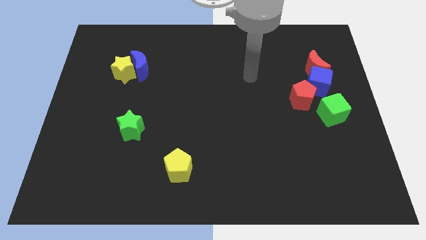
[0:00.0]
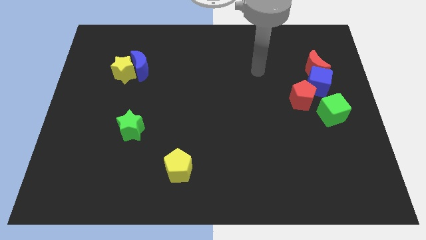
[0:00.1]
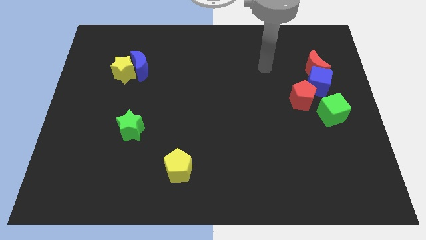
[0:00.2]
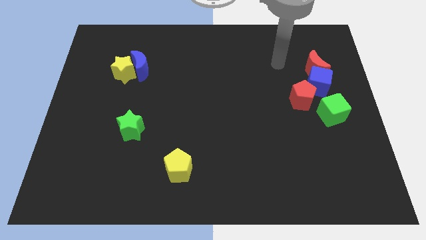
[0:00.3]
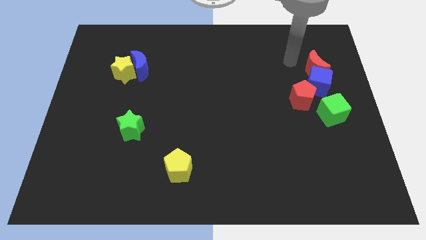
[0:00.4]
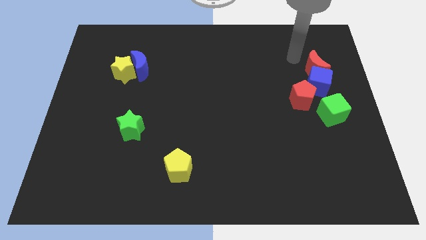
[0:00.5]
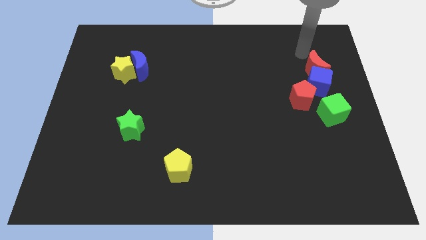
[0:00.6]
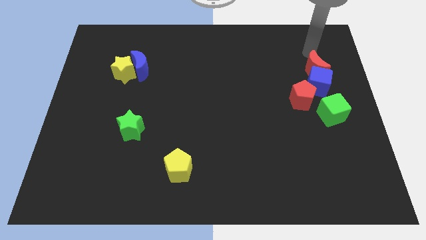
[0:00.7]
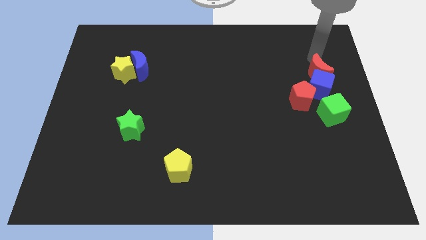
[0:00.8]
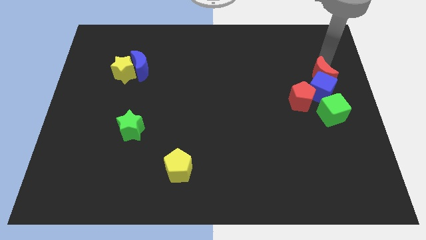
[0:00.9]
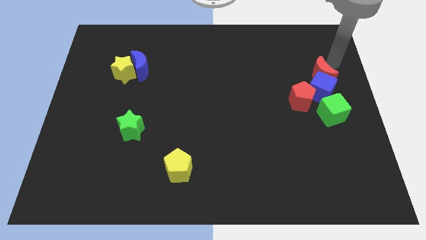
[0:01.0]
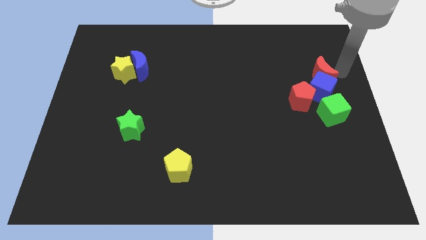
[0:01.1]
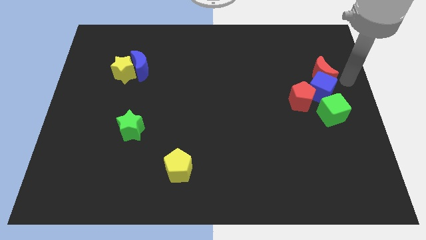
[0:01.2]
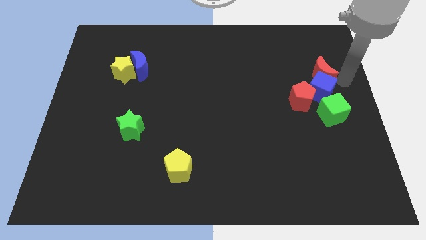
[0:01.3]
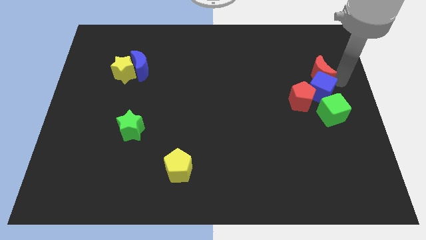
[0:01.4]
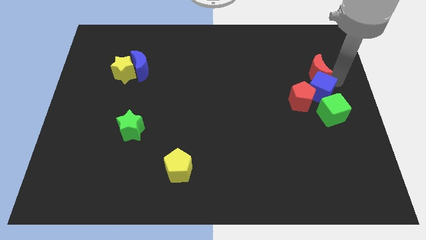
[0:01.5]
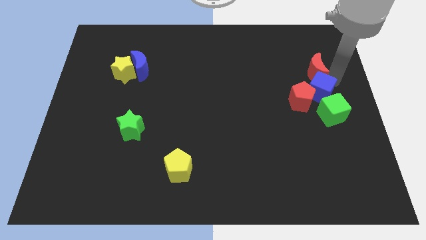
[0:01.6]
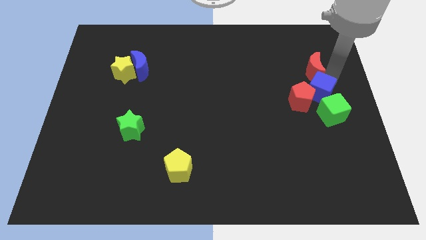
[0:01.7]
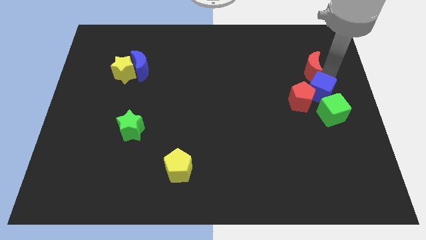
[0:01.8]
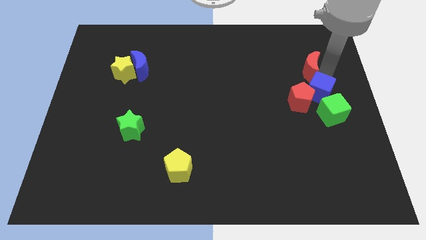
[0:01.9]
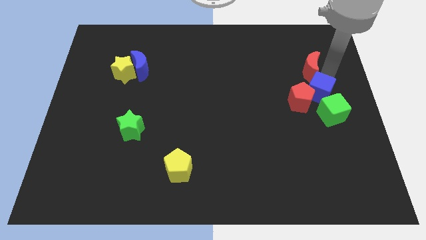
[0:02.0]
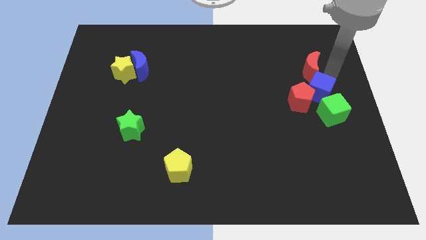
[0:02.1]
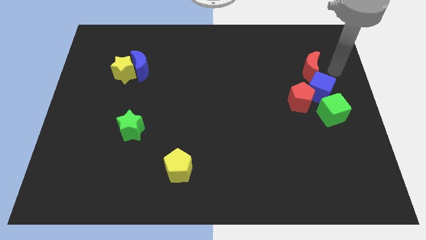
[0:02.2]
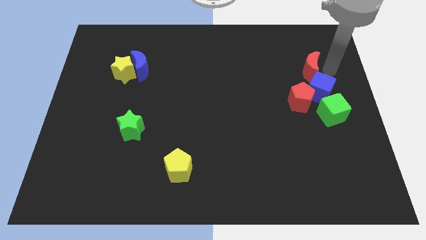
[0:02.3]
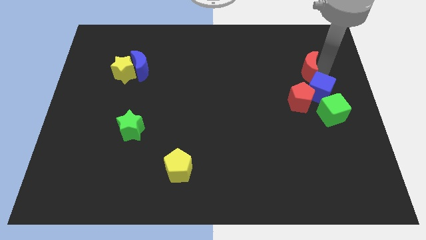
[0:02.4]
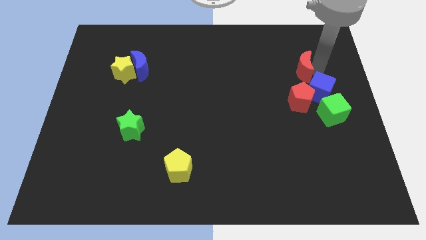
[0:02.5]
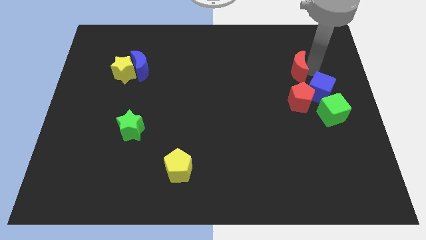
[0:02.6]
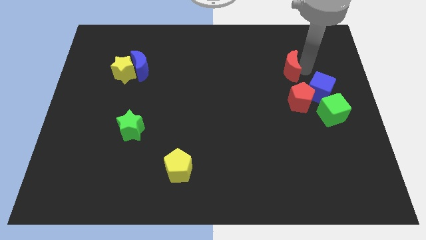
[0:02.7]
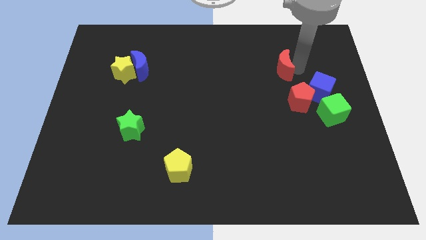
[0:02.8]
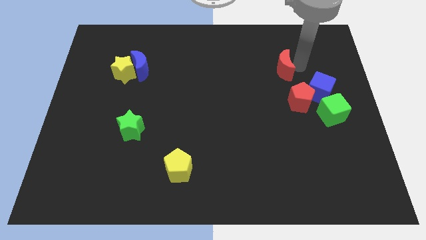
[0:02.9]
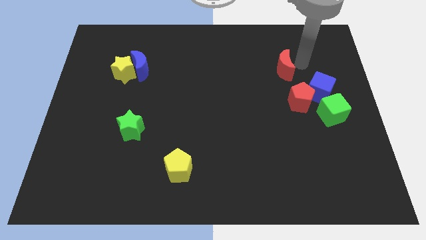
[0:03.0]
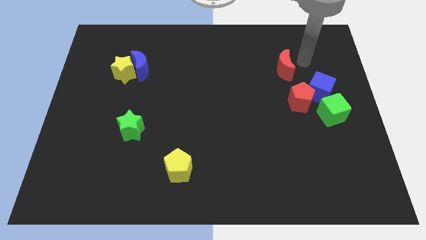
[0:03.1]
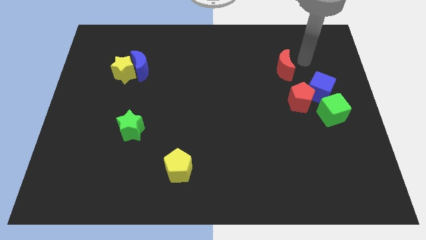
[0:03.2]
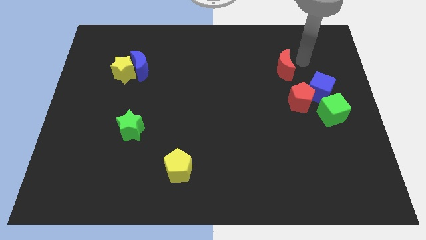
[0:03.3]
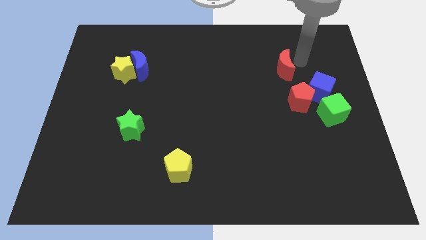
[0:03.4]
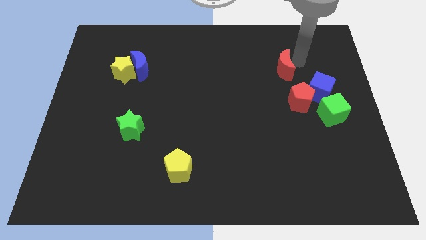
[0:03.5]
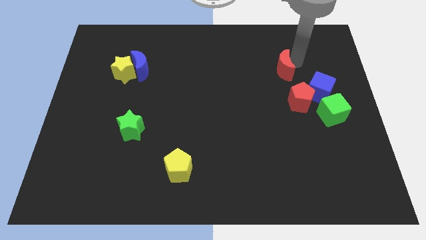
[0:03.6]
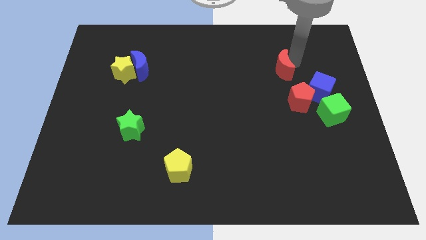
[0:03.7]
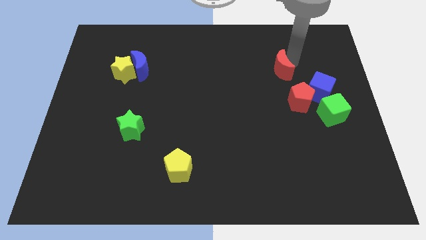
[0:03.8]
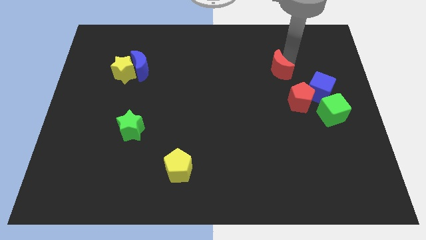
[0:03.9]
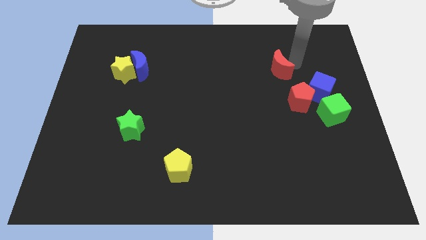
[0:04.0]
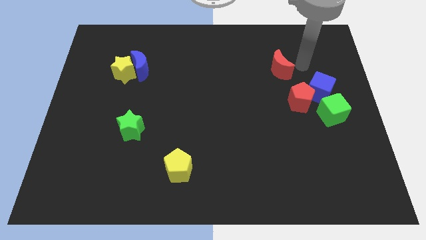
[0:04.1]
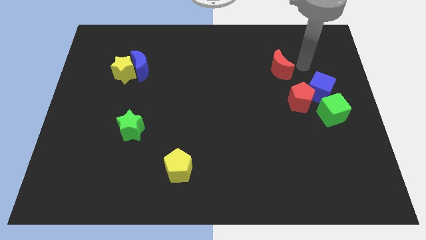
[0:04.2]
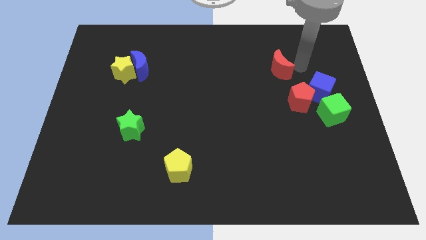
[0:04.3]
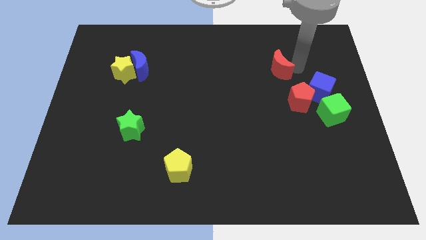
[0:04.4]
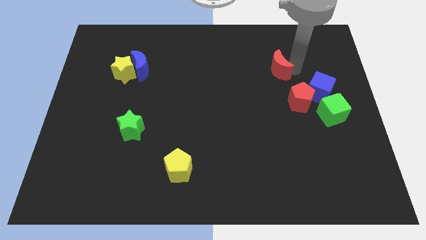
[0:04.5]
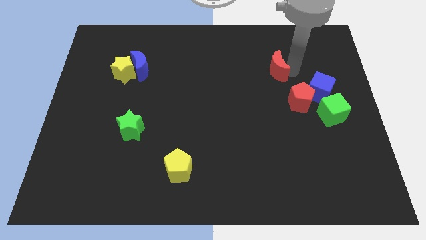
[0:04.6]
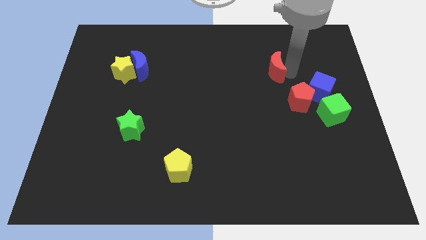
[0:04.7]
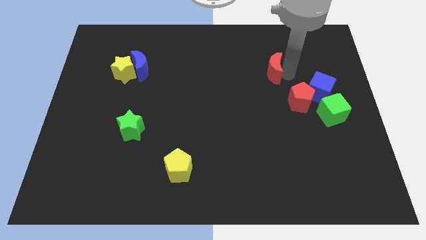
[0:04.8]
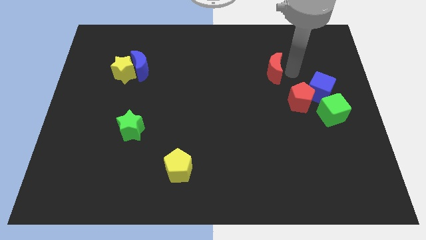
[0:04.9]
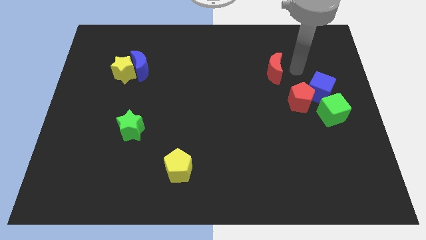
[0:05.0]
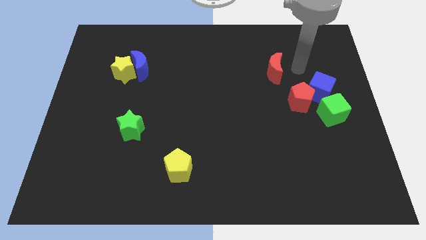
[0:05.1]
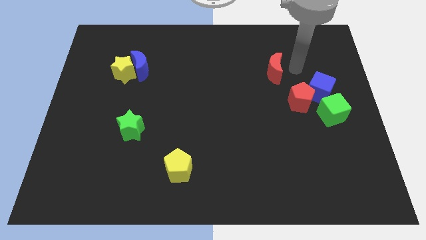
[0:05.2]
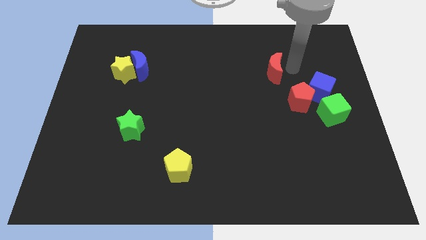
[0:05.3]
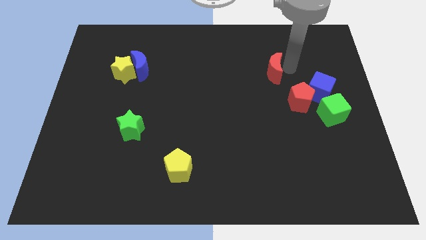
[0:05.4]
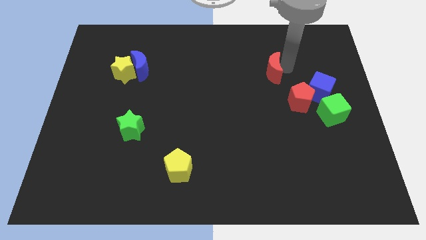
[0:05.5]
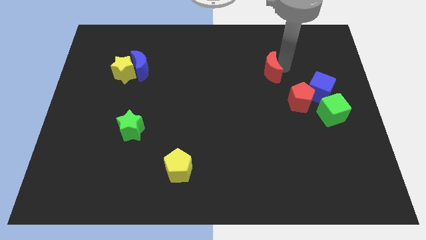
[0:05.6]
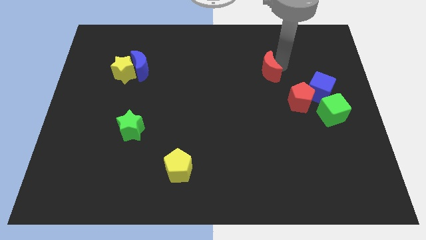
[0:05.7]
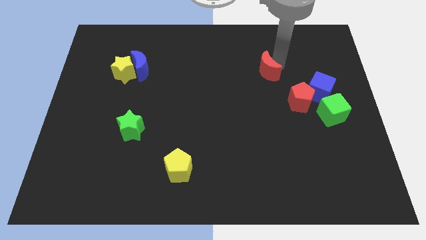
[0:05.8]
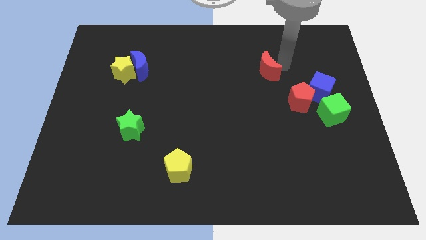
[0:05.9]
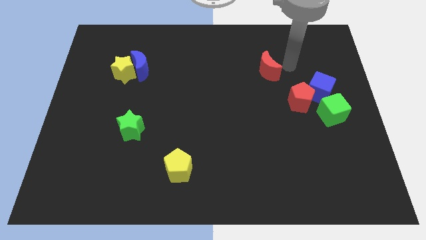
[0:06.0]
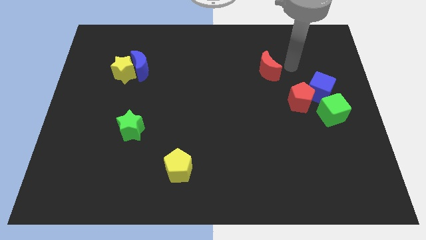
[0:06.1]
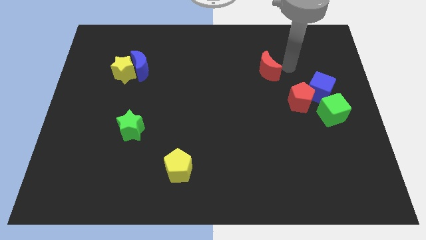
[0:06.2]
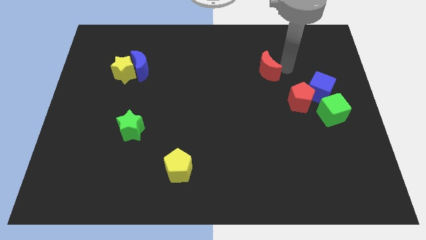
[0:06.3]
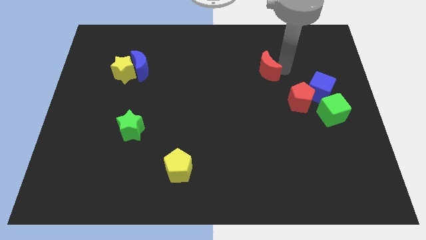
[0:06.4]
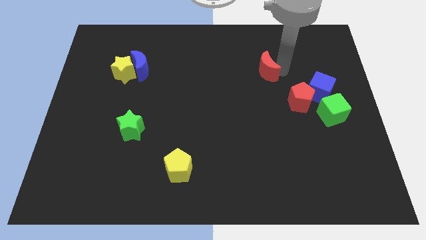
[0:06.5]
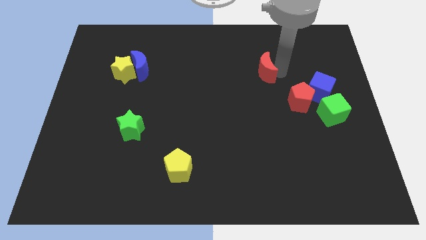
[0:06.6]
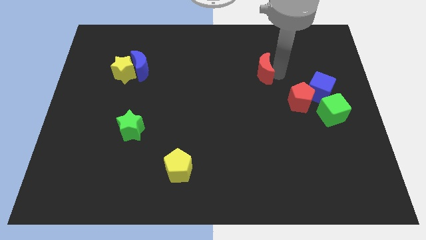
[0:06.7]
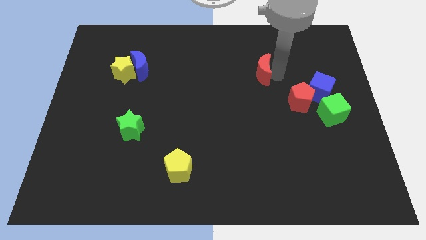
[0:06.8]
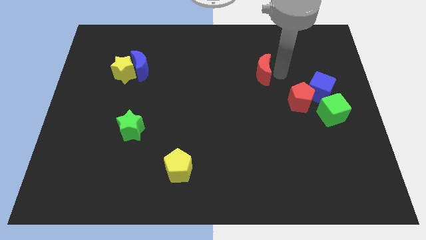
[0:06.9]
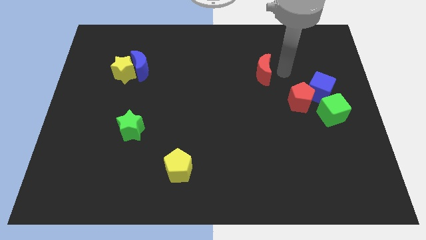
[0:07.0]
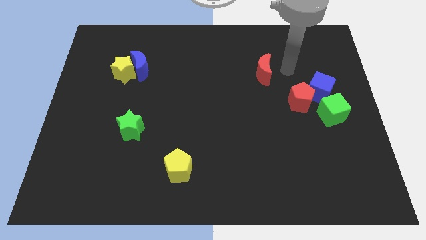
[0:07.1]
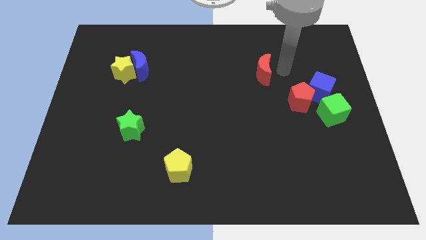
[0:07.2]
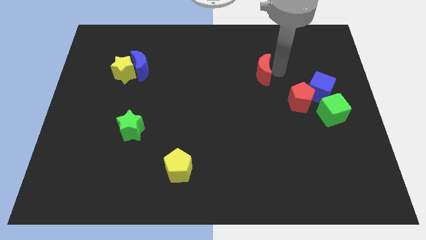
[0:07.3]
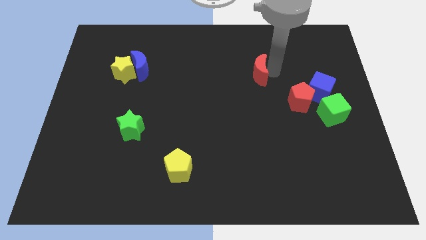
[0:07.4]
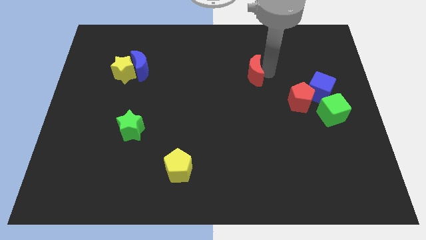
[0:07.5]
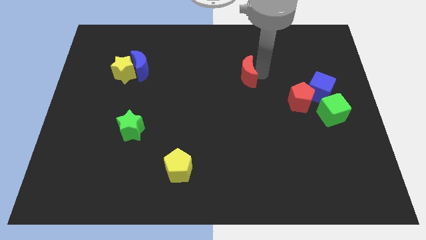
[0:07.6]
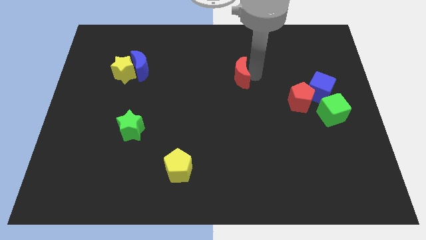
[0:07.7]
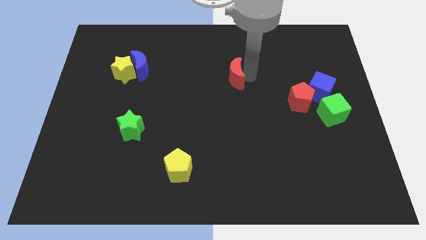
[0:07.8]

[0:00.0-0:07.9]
push the red moon left

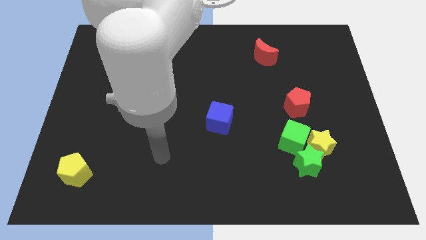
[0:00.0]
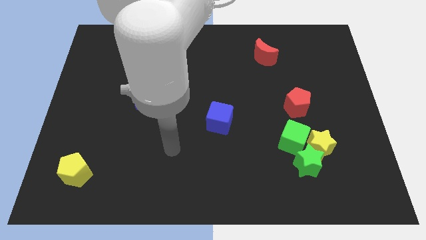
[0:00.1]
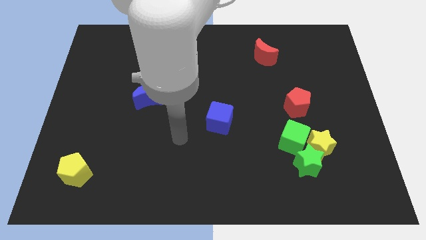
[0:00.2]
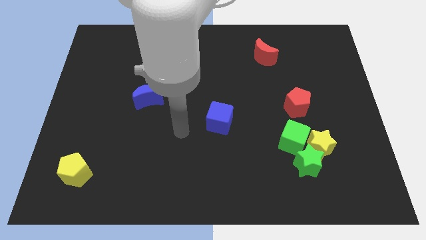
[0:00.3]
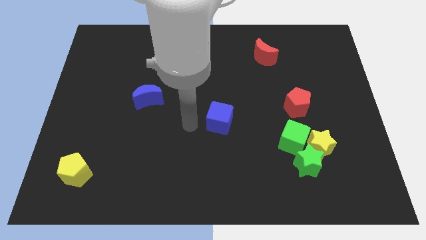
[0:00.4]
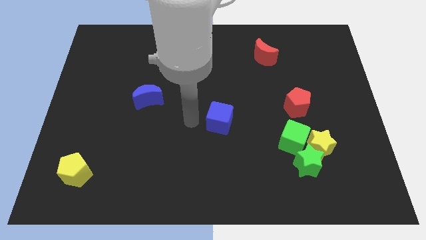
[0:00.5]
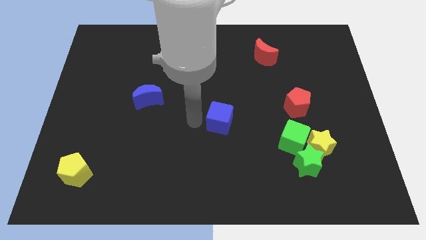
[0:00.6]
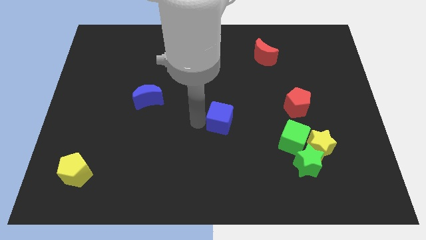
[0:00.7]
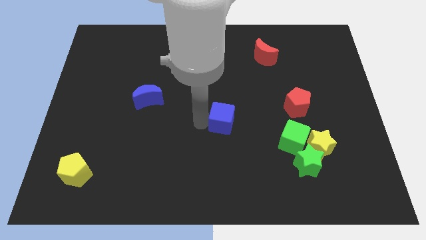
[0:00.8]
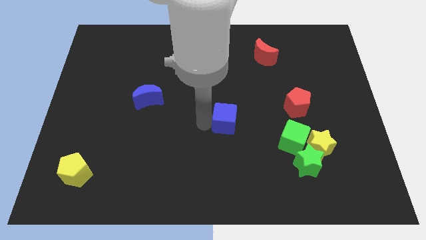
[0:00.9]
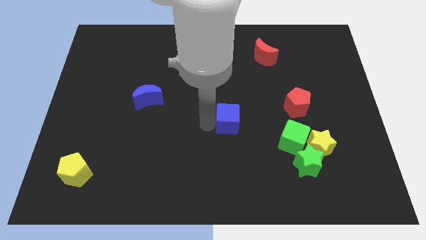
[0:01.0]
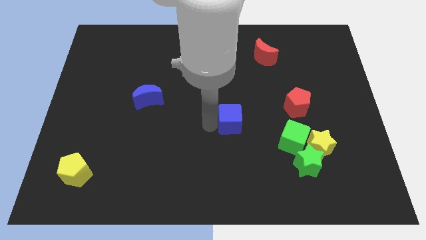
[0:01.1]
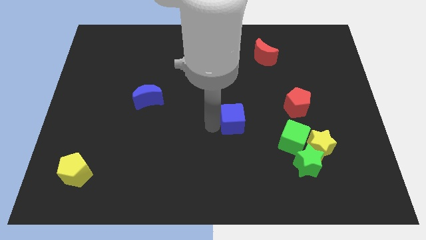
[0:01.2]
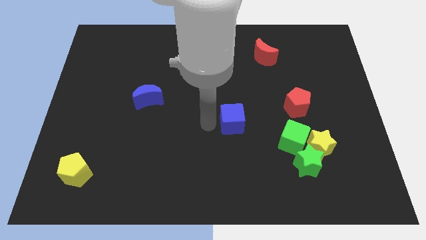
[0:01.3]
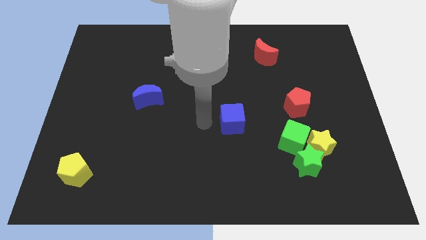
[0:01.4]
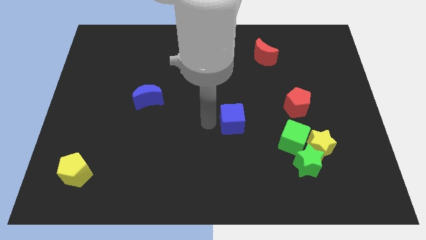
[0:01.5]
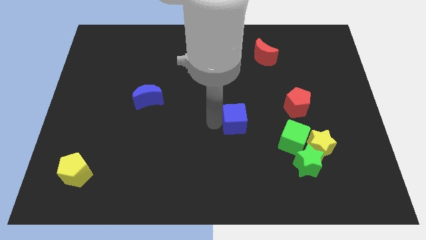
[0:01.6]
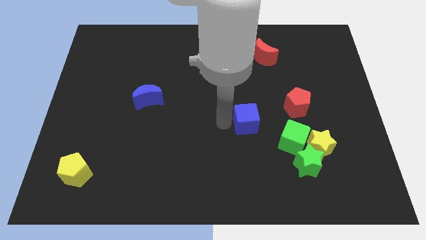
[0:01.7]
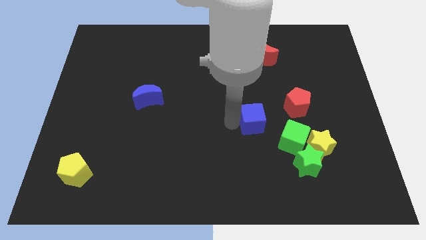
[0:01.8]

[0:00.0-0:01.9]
push the blue cube right somewhat
